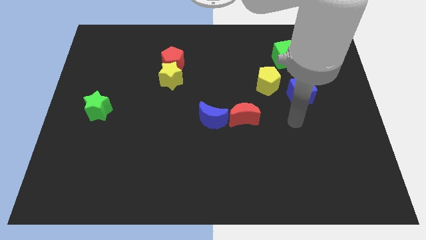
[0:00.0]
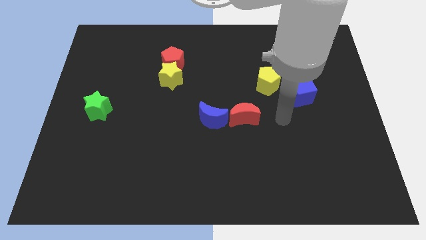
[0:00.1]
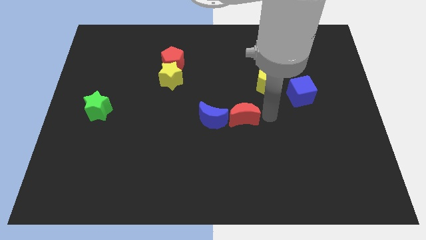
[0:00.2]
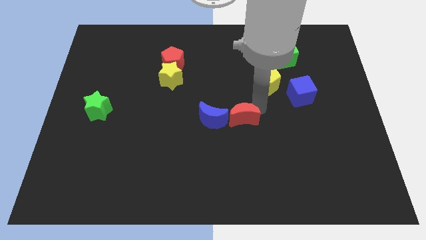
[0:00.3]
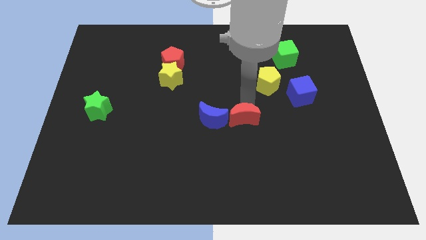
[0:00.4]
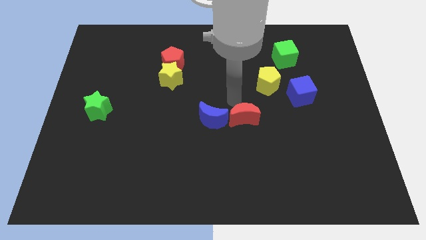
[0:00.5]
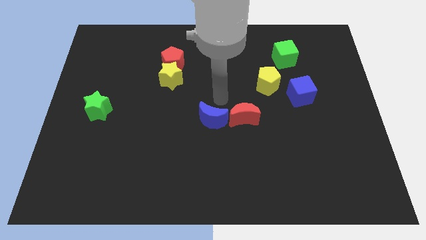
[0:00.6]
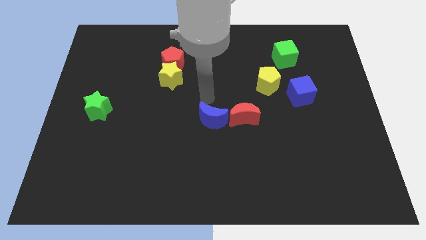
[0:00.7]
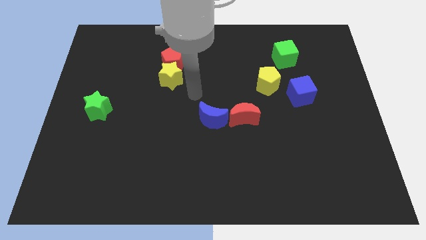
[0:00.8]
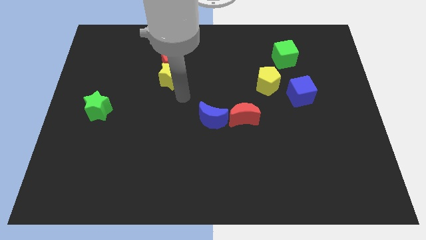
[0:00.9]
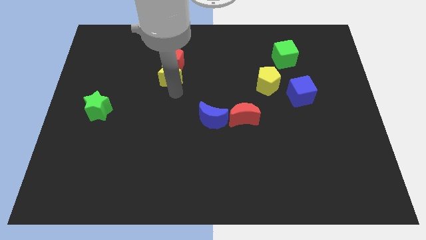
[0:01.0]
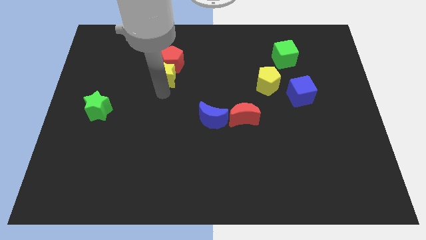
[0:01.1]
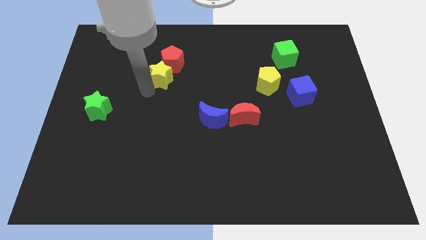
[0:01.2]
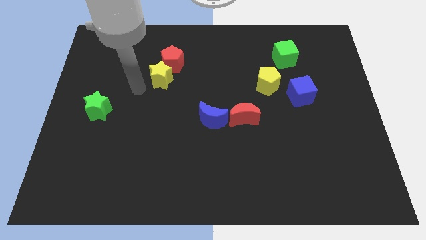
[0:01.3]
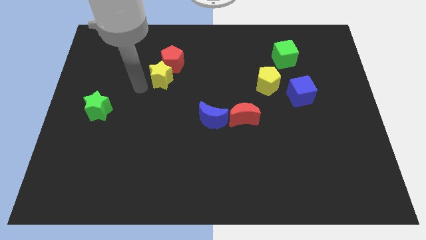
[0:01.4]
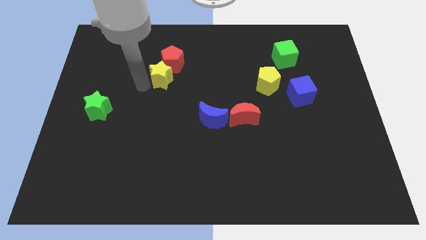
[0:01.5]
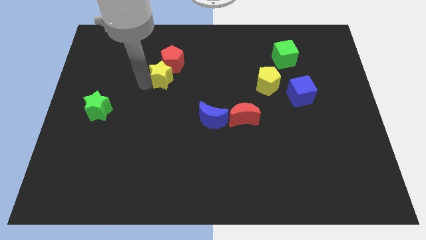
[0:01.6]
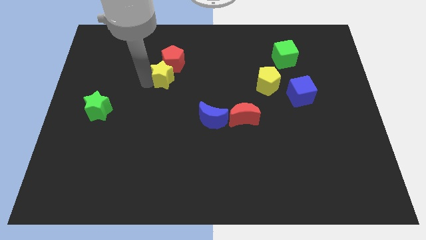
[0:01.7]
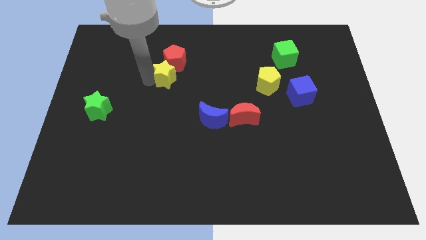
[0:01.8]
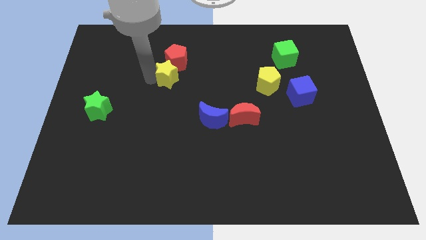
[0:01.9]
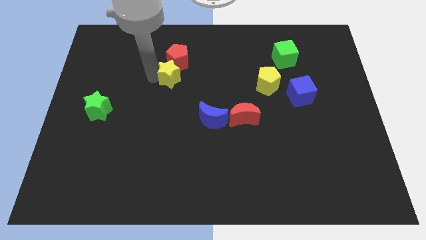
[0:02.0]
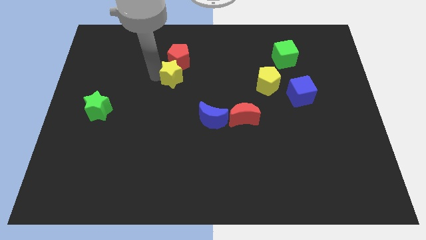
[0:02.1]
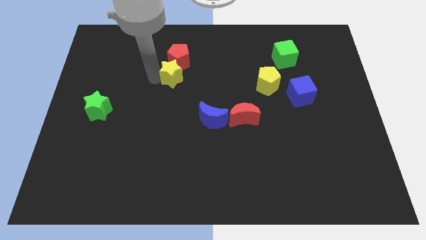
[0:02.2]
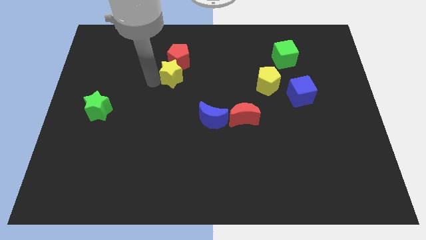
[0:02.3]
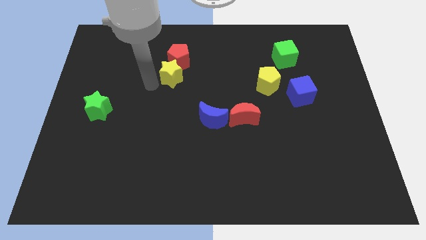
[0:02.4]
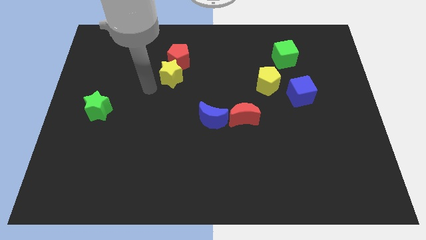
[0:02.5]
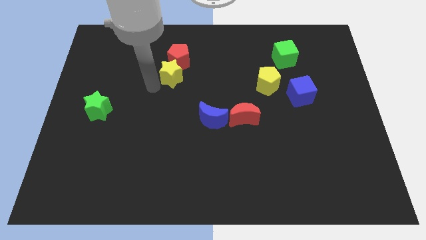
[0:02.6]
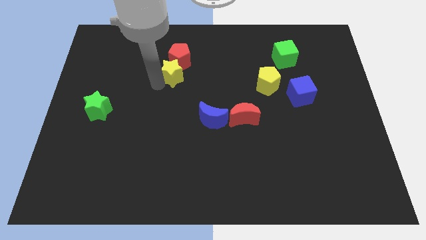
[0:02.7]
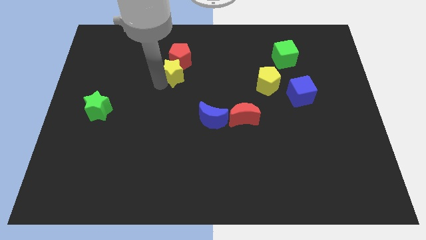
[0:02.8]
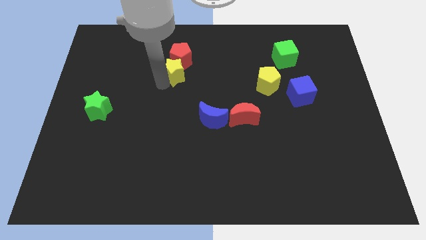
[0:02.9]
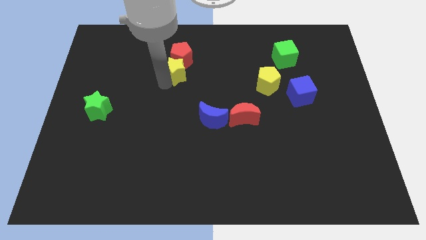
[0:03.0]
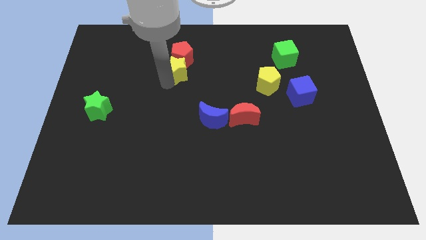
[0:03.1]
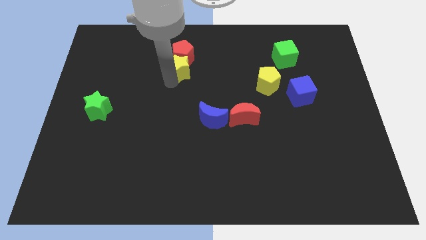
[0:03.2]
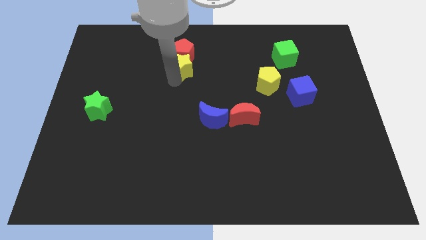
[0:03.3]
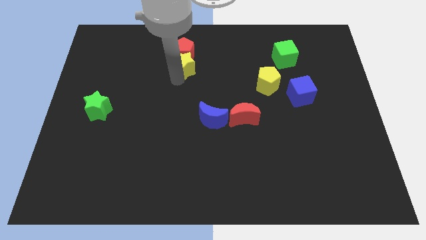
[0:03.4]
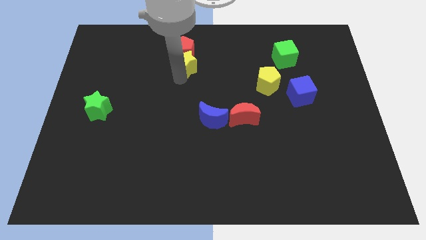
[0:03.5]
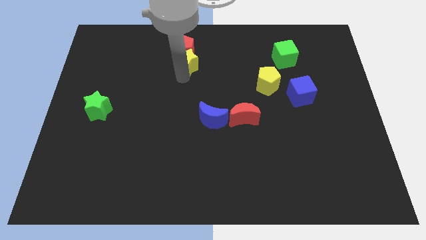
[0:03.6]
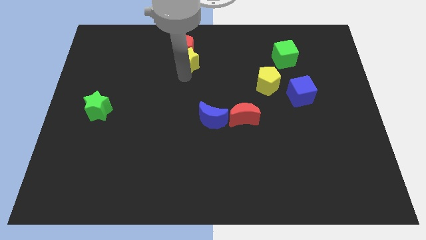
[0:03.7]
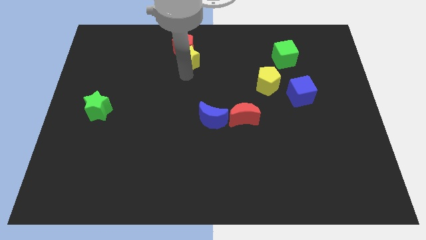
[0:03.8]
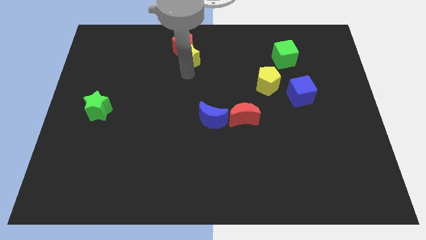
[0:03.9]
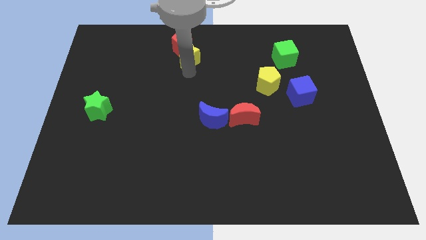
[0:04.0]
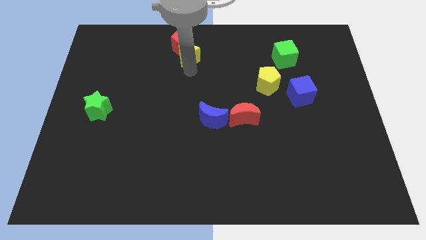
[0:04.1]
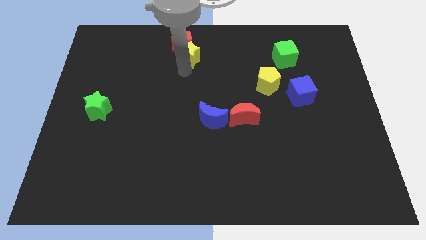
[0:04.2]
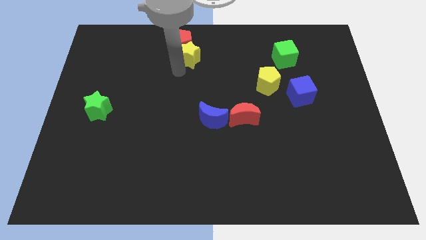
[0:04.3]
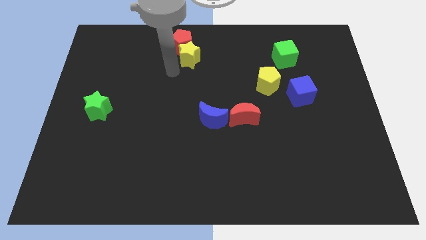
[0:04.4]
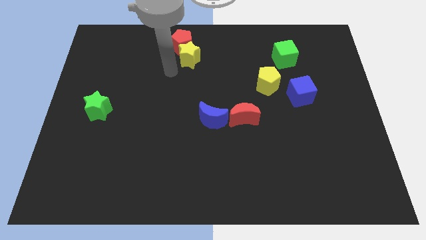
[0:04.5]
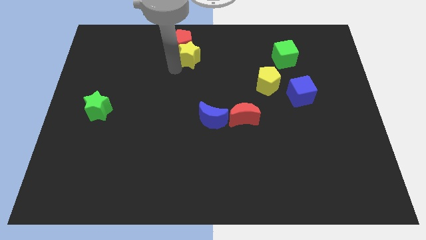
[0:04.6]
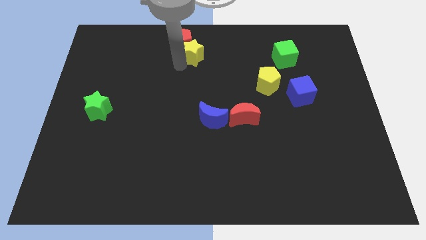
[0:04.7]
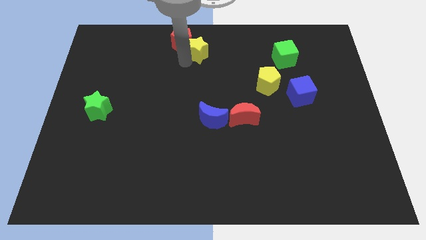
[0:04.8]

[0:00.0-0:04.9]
push the yellow star to the top

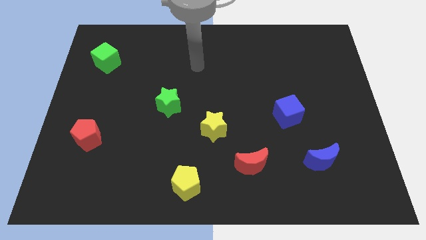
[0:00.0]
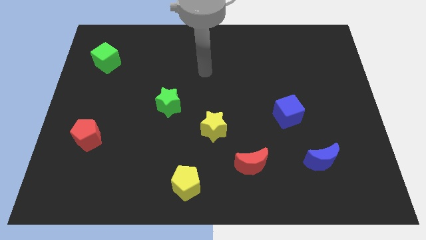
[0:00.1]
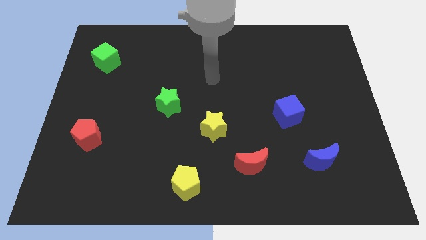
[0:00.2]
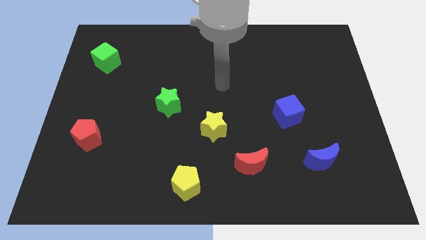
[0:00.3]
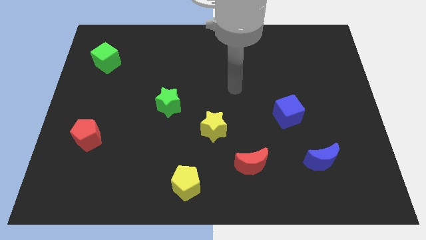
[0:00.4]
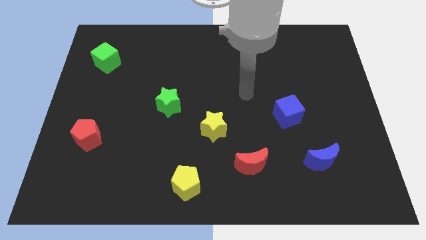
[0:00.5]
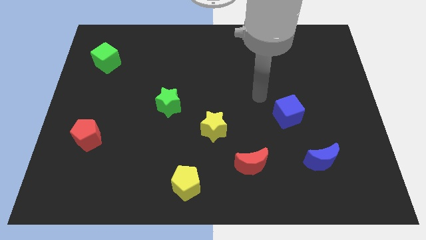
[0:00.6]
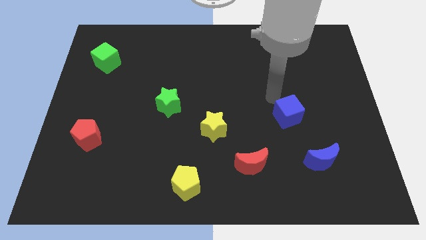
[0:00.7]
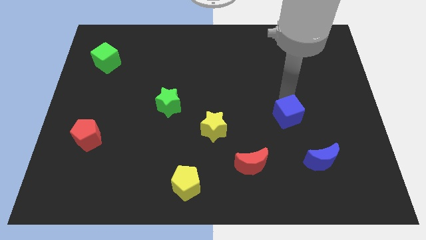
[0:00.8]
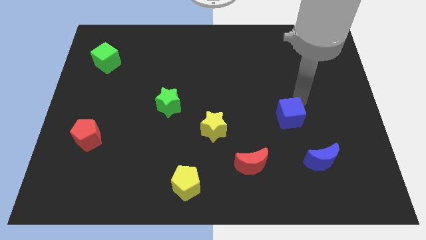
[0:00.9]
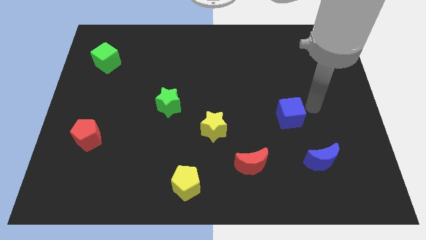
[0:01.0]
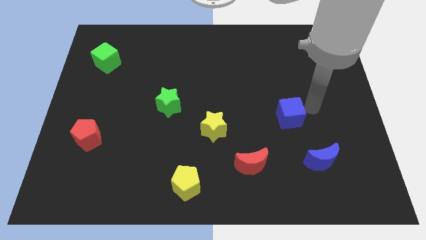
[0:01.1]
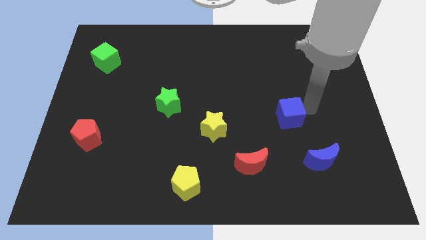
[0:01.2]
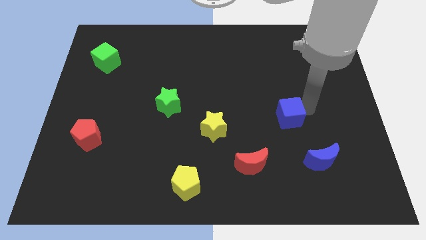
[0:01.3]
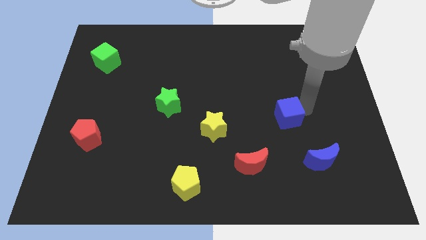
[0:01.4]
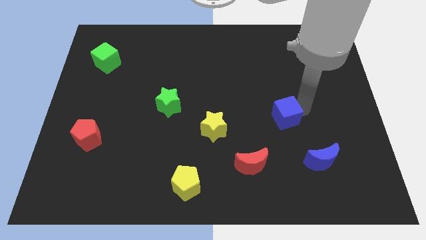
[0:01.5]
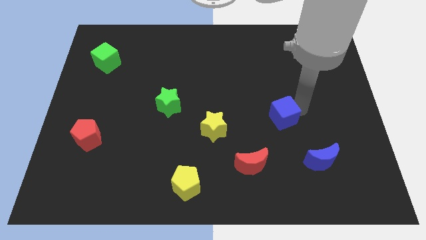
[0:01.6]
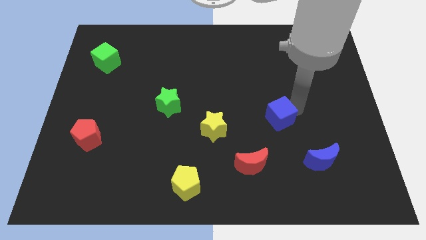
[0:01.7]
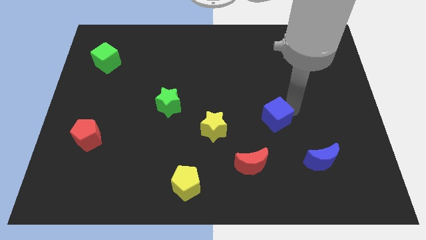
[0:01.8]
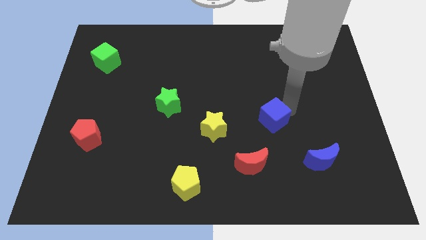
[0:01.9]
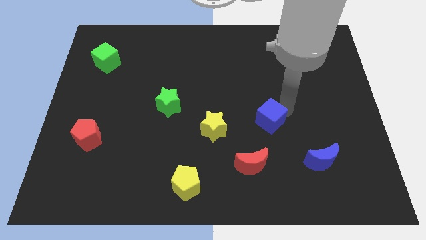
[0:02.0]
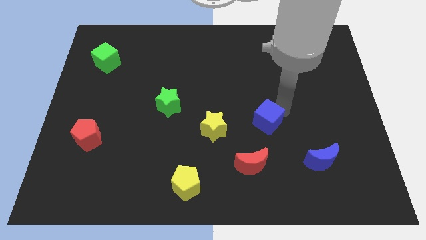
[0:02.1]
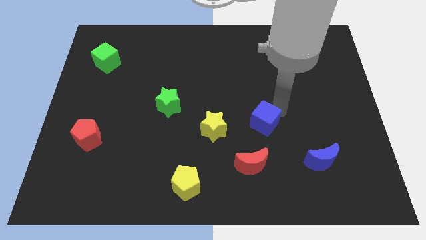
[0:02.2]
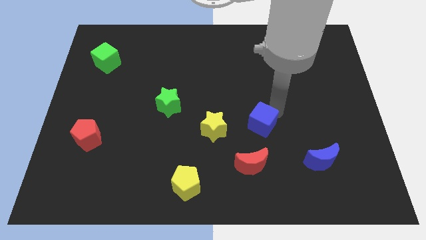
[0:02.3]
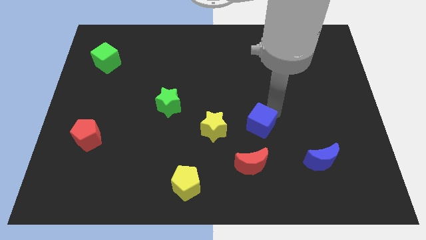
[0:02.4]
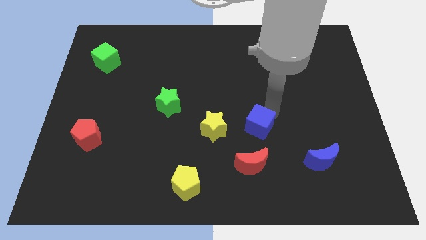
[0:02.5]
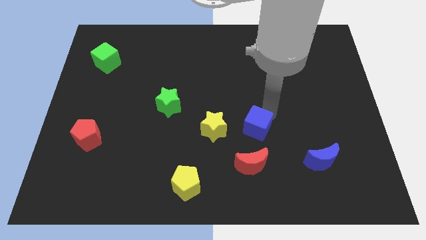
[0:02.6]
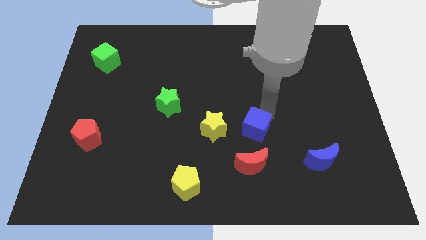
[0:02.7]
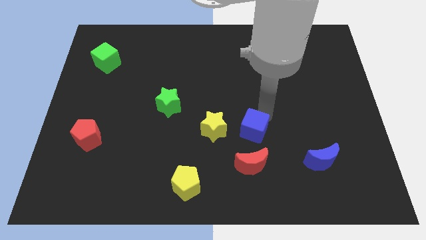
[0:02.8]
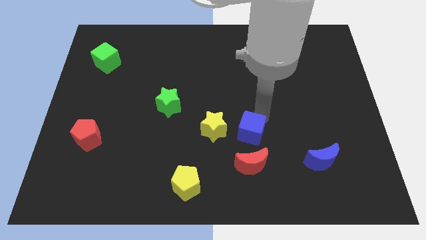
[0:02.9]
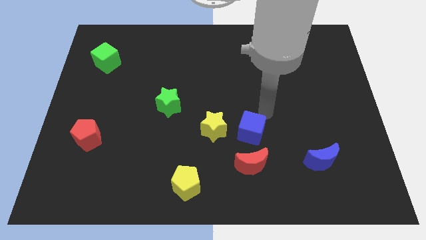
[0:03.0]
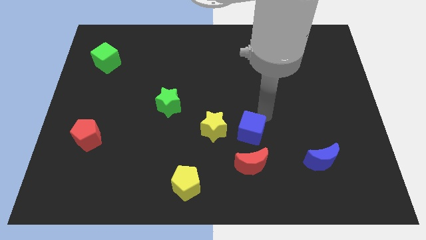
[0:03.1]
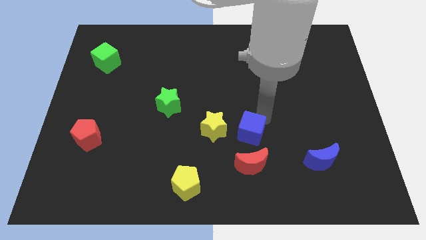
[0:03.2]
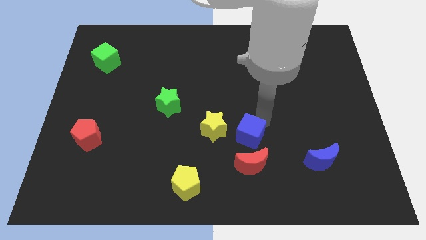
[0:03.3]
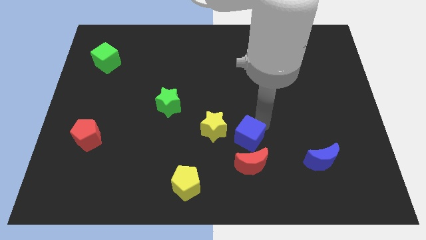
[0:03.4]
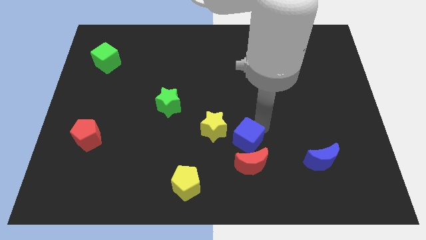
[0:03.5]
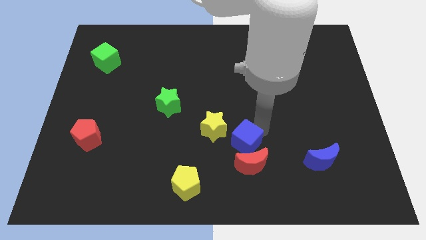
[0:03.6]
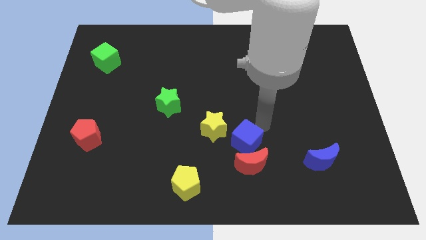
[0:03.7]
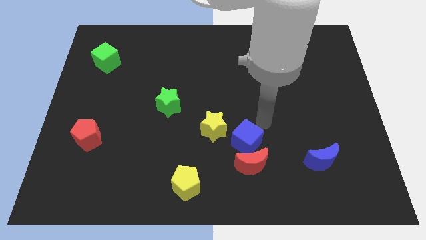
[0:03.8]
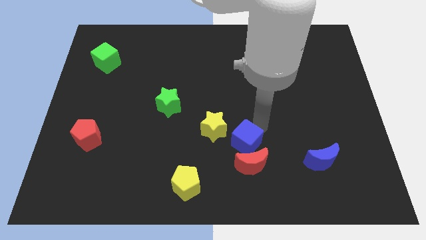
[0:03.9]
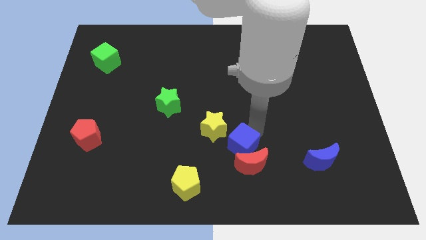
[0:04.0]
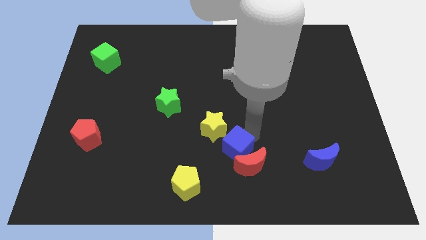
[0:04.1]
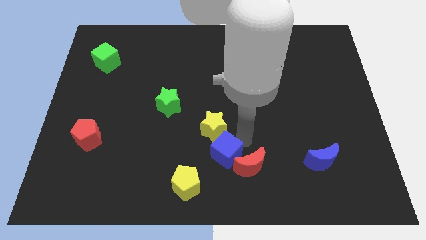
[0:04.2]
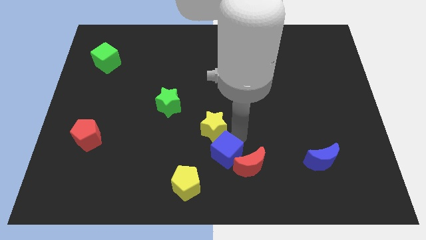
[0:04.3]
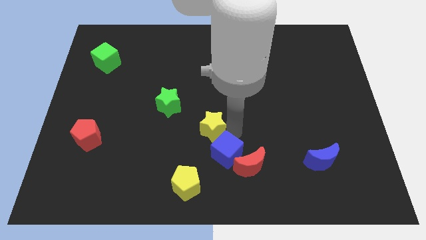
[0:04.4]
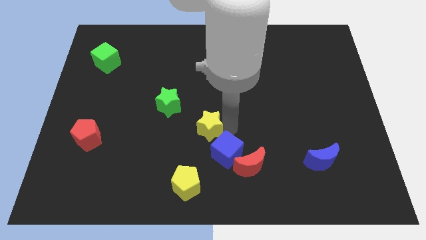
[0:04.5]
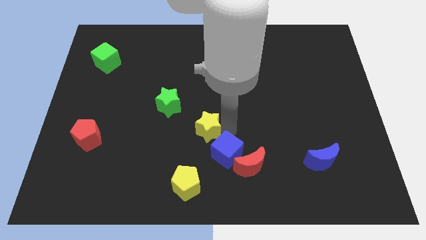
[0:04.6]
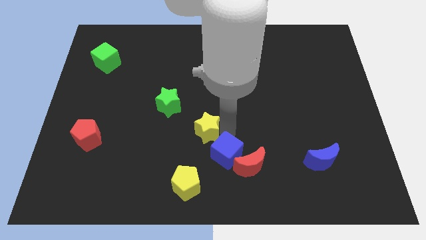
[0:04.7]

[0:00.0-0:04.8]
slide the blue cube to the bottom
